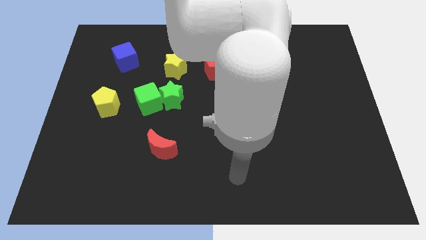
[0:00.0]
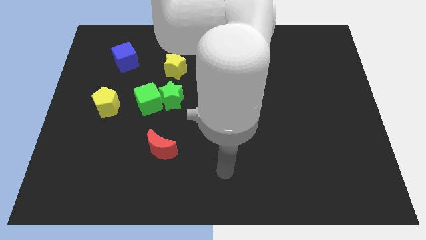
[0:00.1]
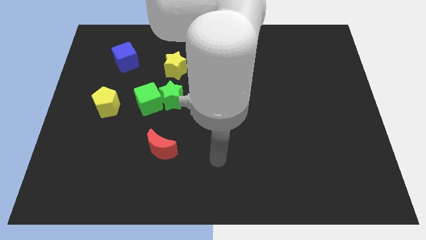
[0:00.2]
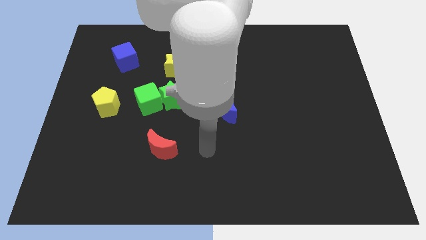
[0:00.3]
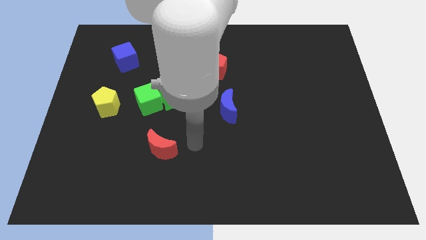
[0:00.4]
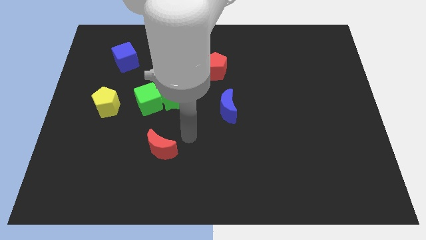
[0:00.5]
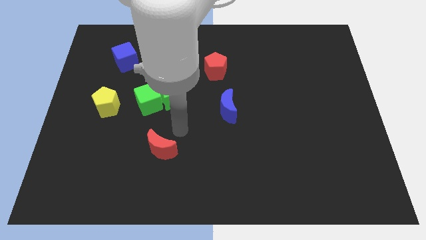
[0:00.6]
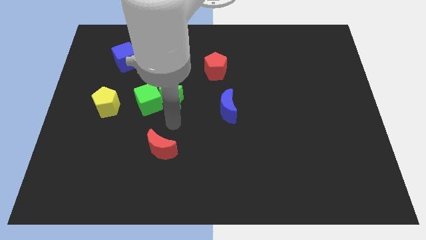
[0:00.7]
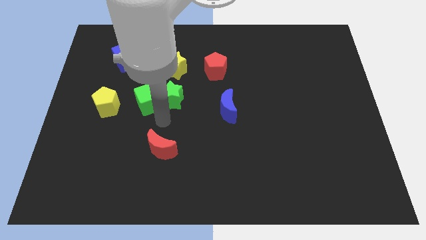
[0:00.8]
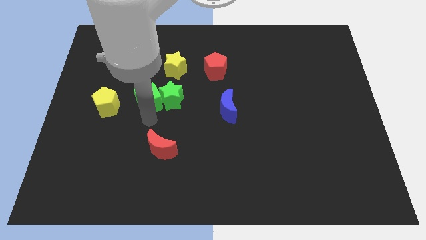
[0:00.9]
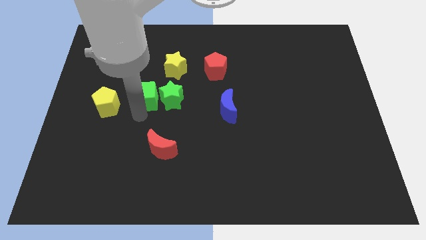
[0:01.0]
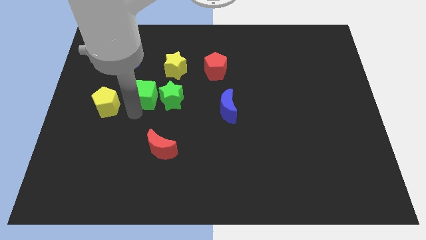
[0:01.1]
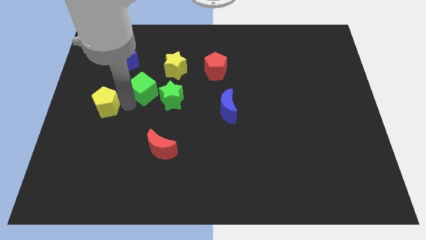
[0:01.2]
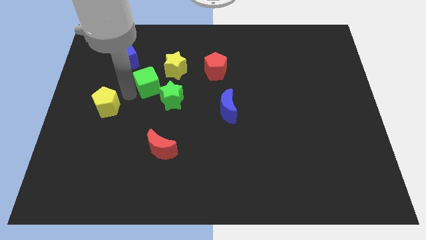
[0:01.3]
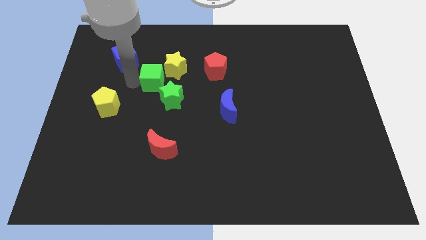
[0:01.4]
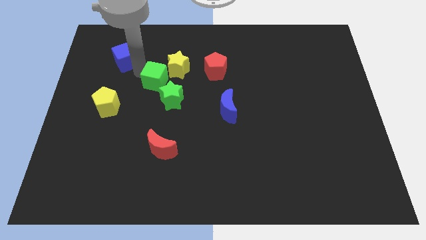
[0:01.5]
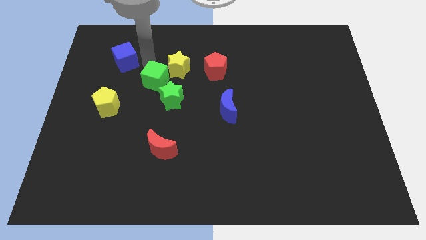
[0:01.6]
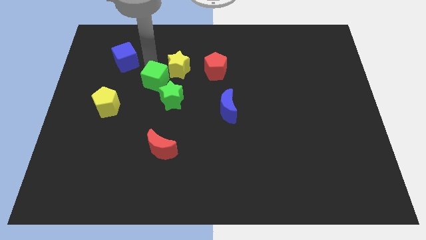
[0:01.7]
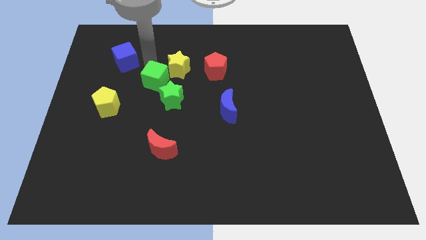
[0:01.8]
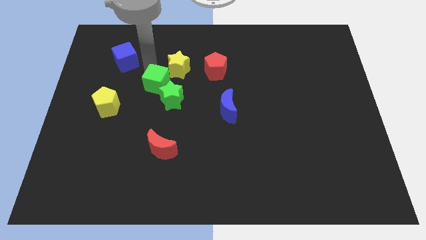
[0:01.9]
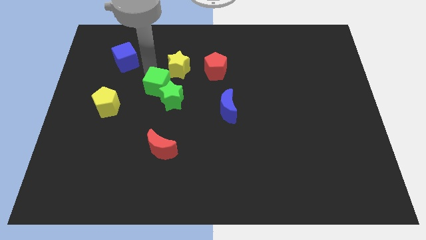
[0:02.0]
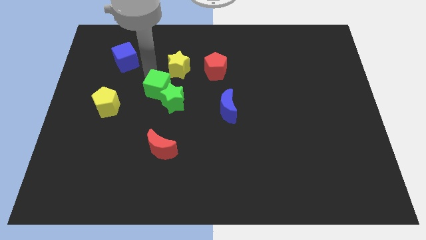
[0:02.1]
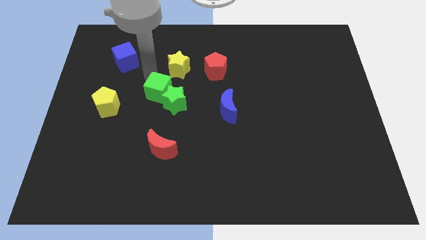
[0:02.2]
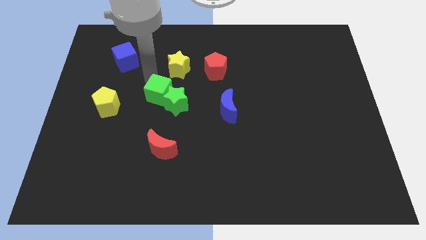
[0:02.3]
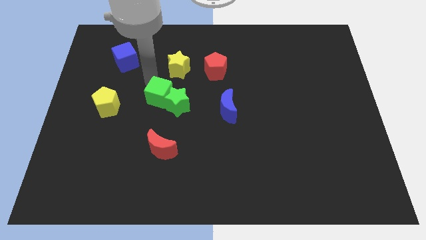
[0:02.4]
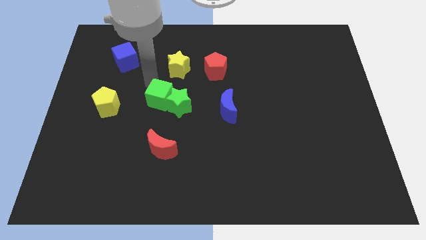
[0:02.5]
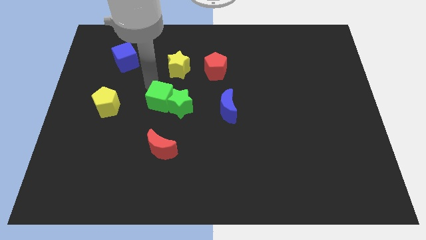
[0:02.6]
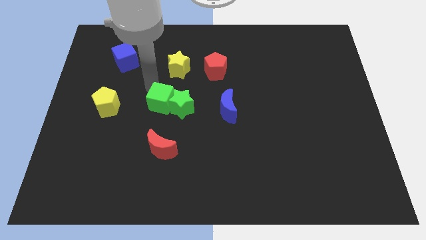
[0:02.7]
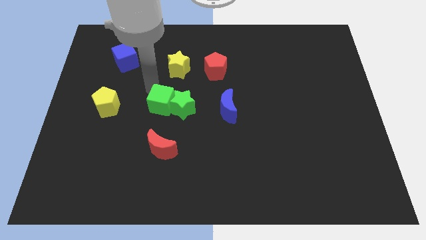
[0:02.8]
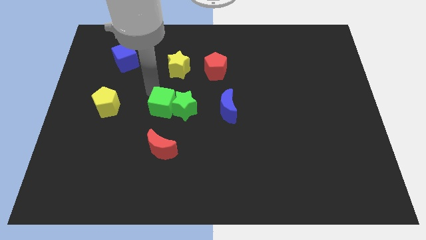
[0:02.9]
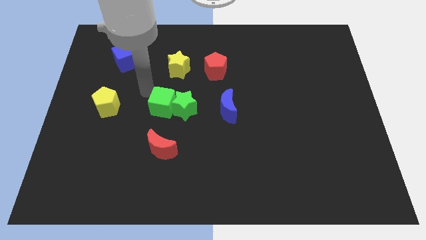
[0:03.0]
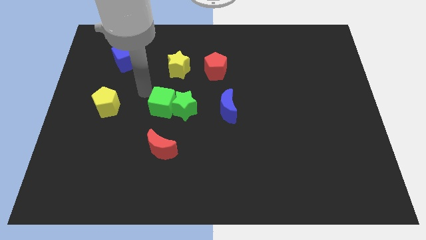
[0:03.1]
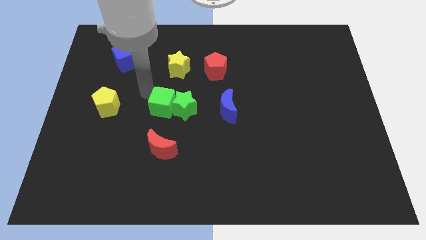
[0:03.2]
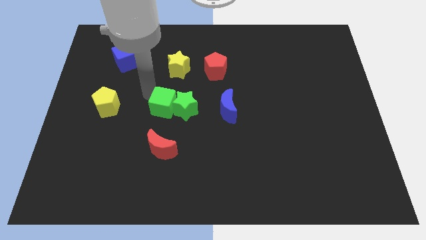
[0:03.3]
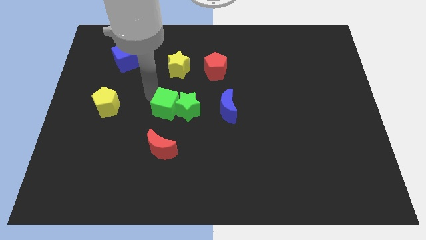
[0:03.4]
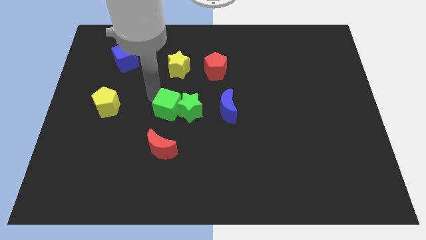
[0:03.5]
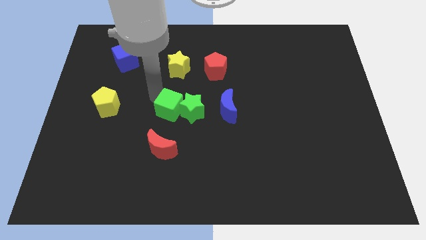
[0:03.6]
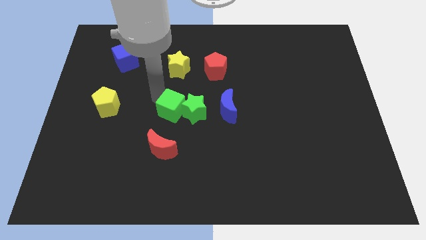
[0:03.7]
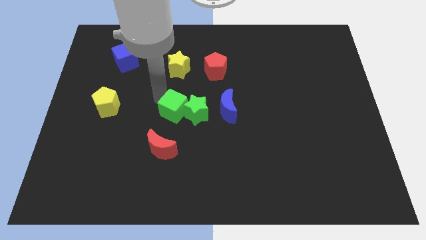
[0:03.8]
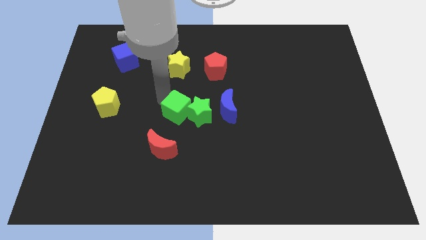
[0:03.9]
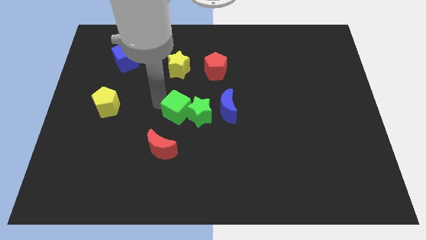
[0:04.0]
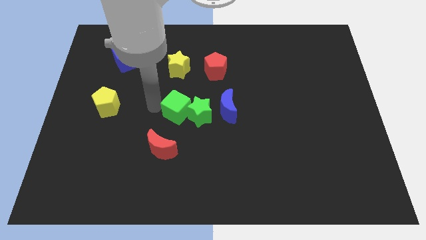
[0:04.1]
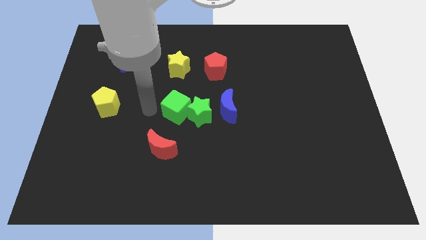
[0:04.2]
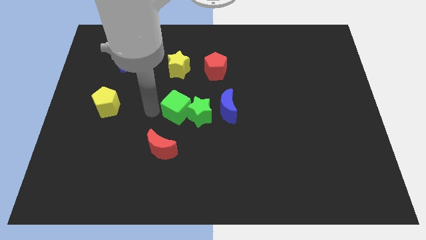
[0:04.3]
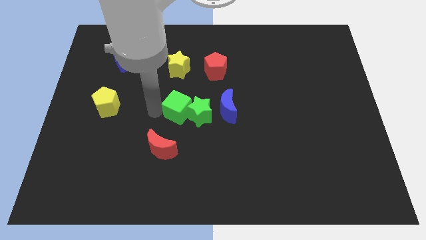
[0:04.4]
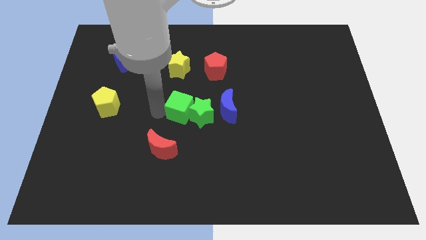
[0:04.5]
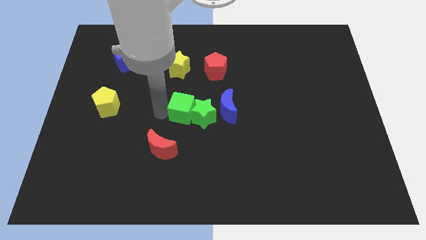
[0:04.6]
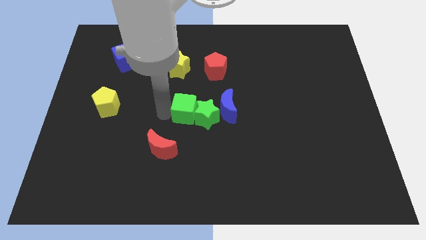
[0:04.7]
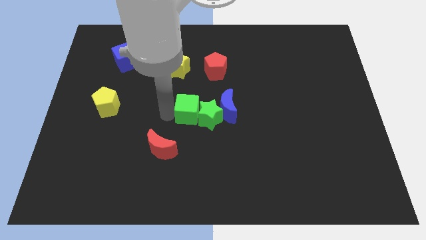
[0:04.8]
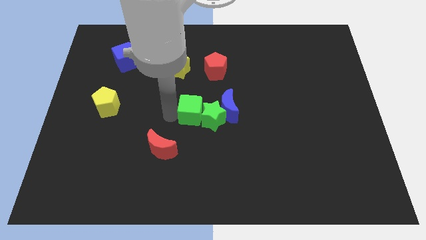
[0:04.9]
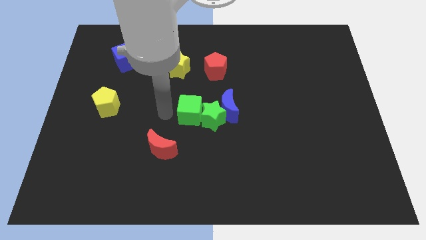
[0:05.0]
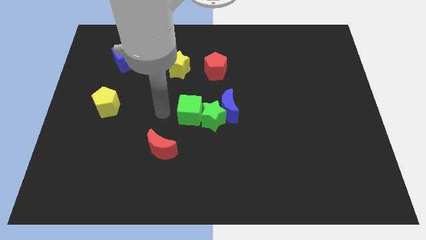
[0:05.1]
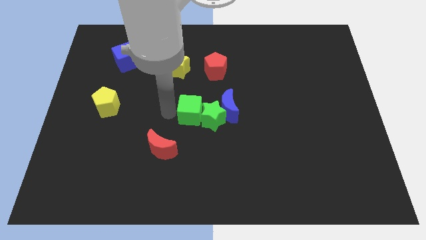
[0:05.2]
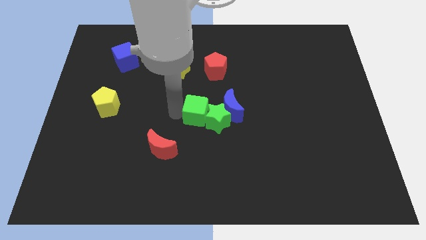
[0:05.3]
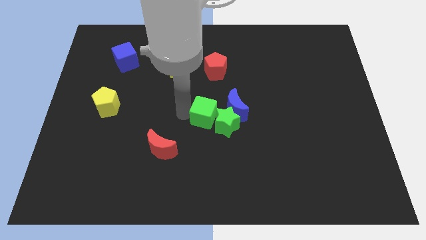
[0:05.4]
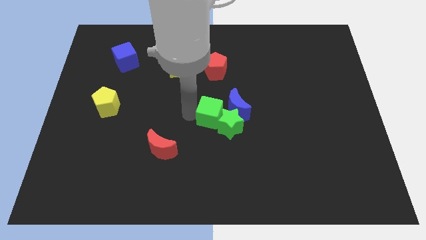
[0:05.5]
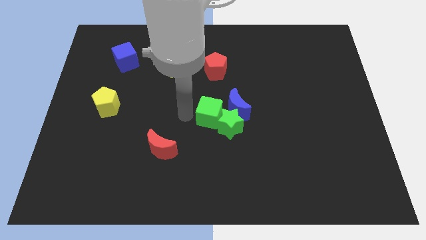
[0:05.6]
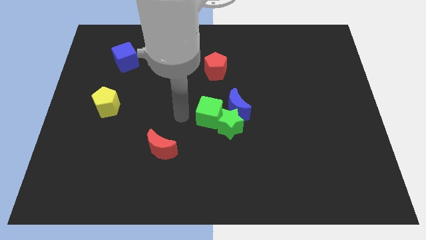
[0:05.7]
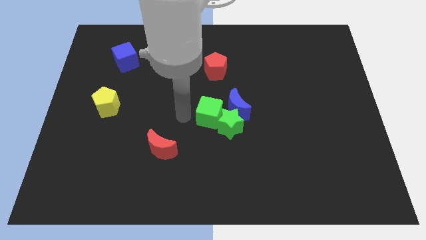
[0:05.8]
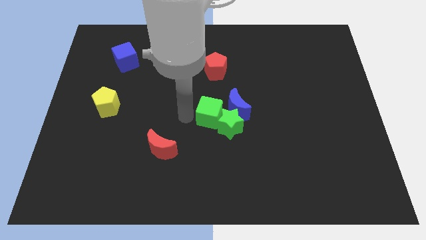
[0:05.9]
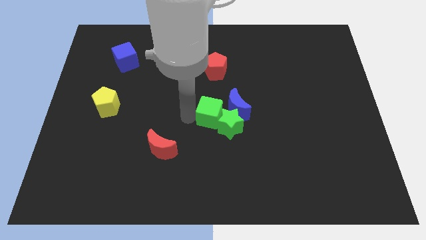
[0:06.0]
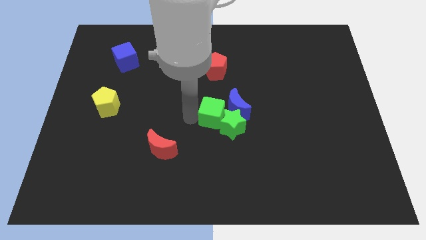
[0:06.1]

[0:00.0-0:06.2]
move the green cube away from the green star and yellow pentagon

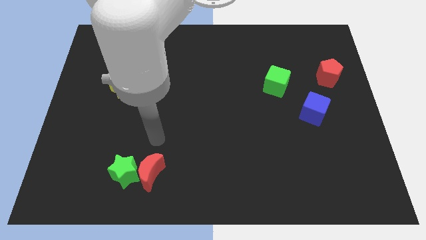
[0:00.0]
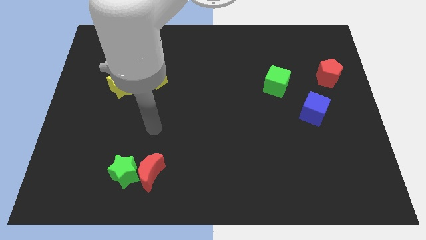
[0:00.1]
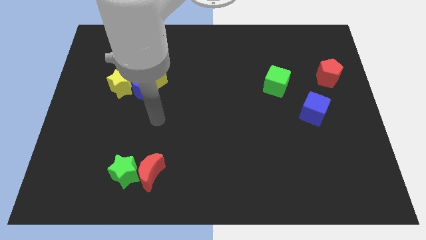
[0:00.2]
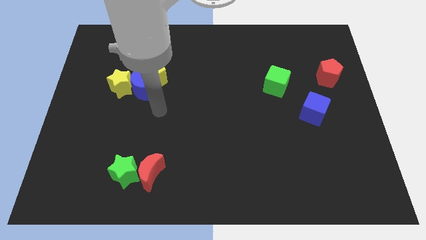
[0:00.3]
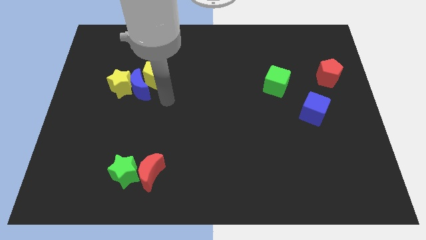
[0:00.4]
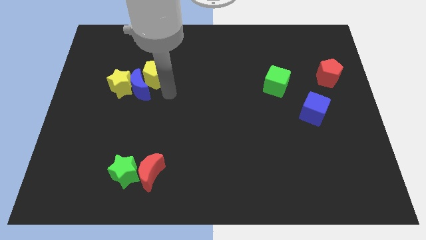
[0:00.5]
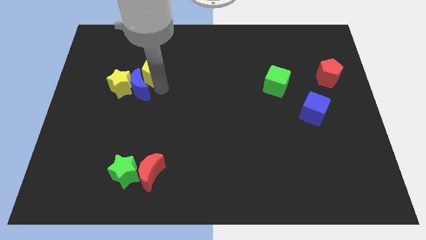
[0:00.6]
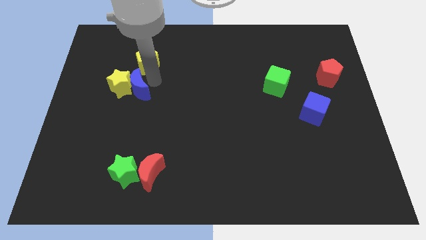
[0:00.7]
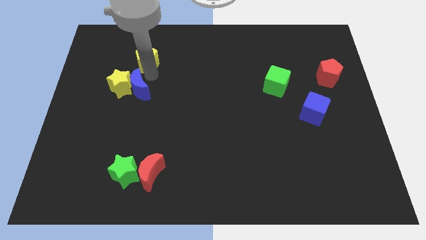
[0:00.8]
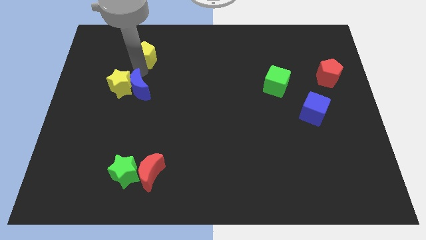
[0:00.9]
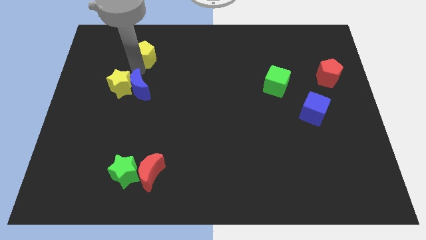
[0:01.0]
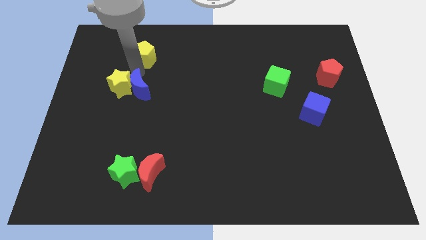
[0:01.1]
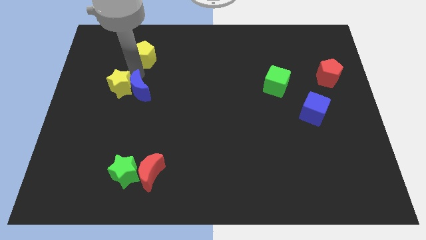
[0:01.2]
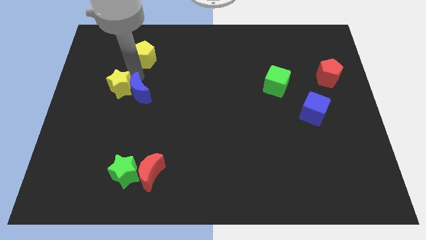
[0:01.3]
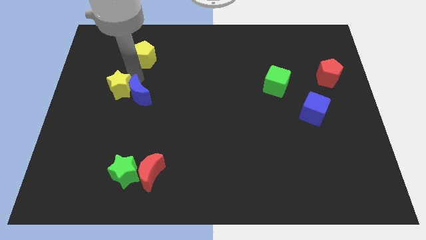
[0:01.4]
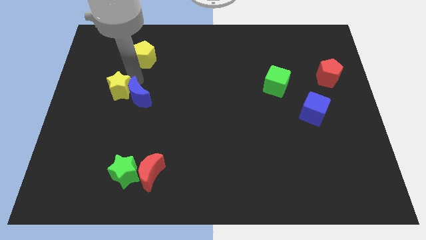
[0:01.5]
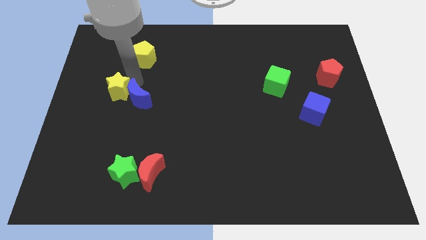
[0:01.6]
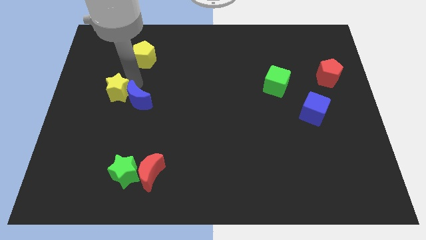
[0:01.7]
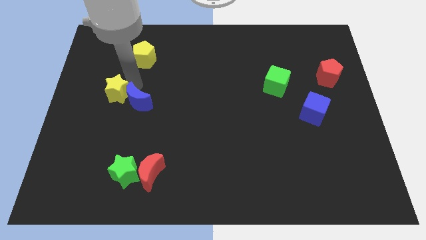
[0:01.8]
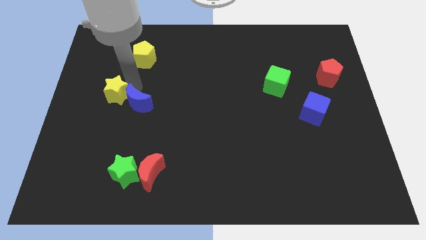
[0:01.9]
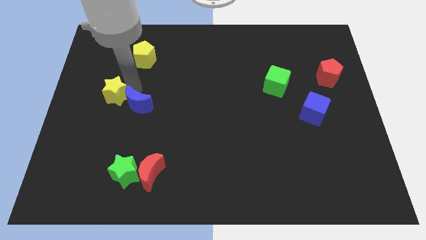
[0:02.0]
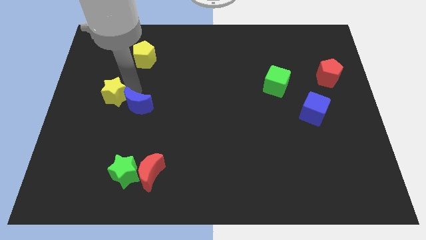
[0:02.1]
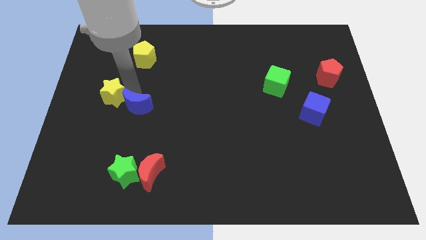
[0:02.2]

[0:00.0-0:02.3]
separate the blue moon from the yellow star and yellow pentagon

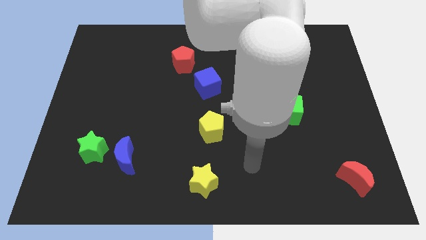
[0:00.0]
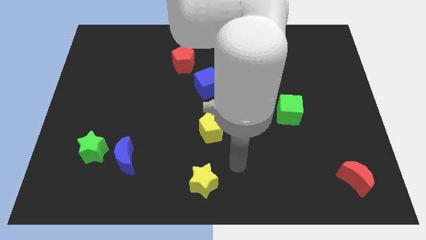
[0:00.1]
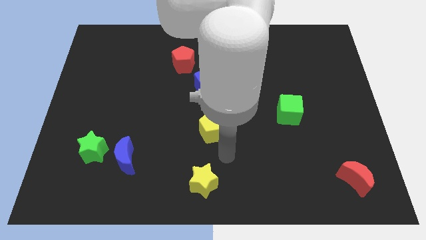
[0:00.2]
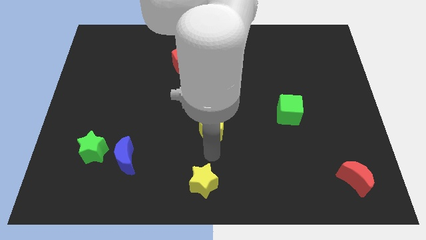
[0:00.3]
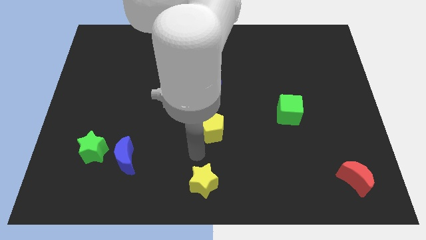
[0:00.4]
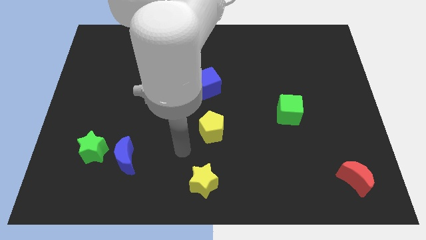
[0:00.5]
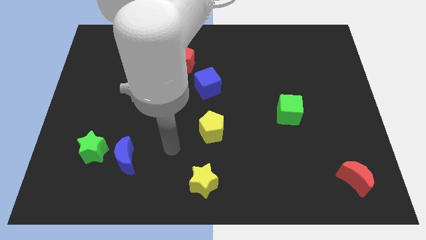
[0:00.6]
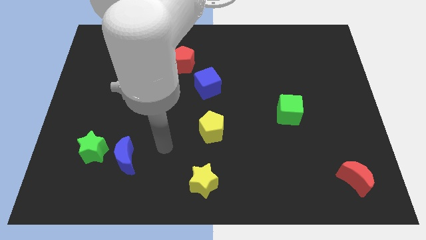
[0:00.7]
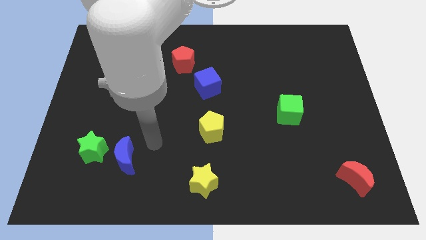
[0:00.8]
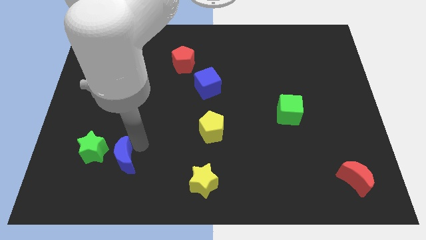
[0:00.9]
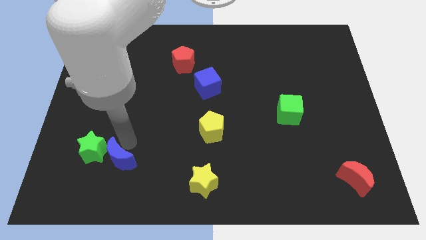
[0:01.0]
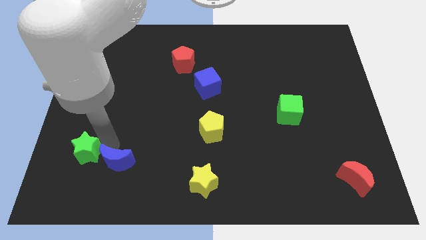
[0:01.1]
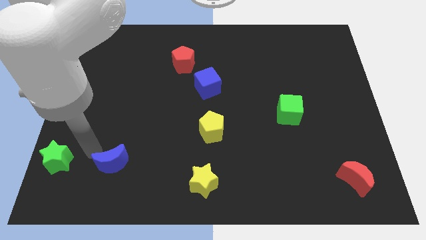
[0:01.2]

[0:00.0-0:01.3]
pull the blue moon apart from the green star
